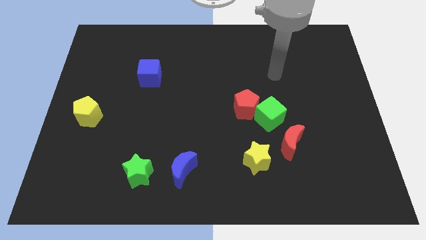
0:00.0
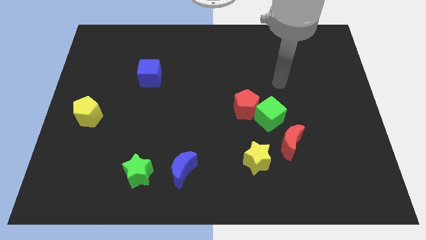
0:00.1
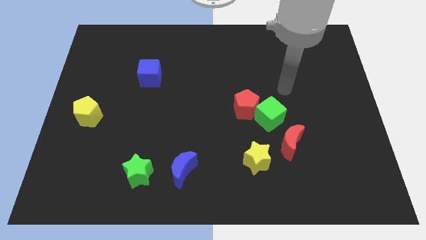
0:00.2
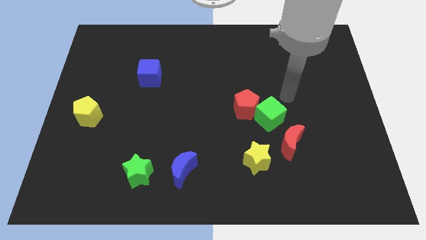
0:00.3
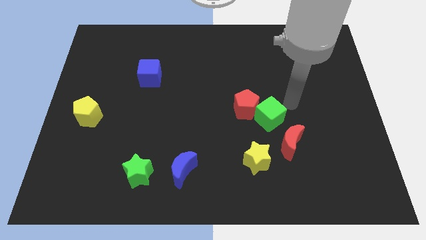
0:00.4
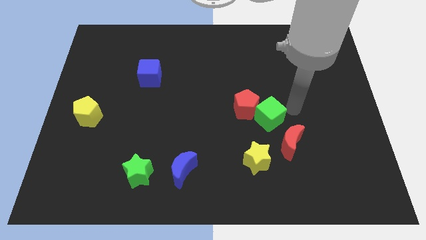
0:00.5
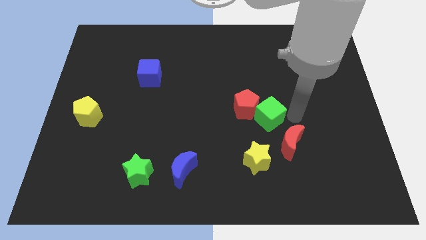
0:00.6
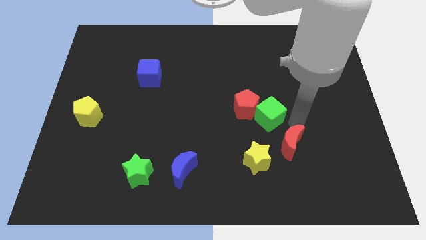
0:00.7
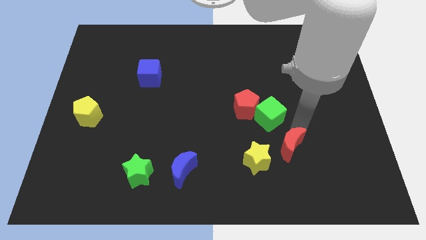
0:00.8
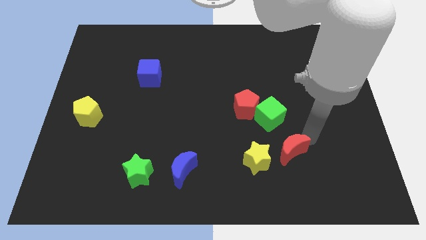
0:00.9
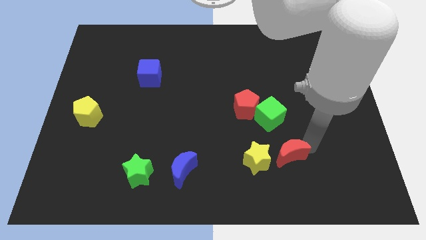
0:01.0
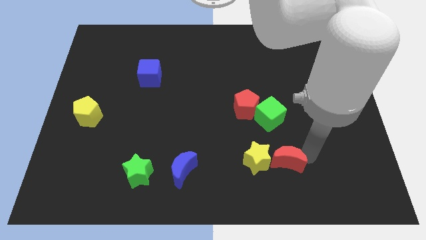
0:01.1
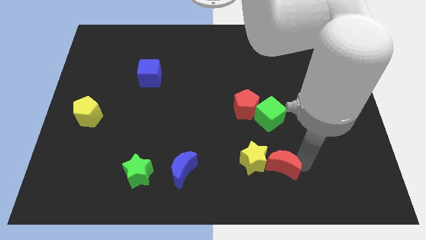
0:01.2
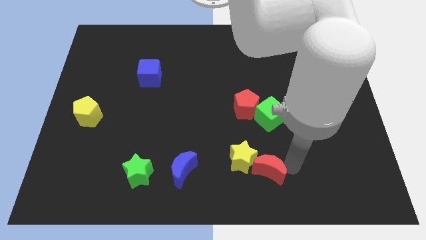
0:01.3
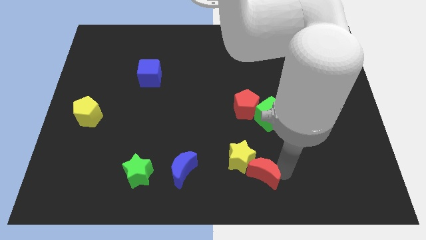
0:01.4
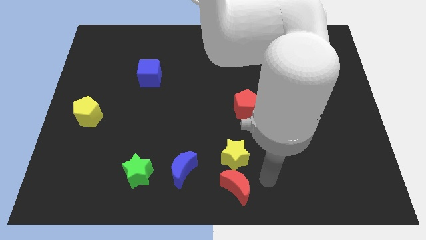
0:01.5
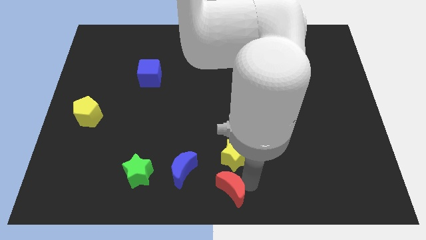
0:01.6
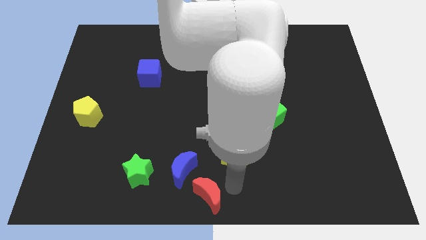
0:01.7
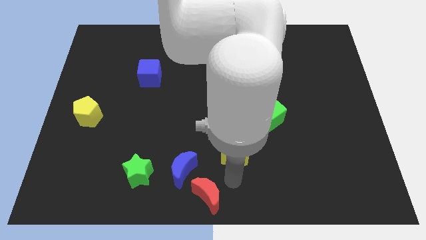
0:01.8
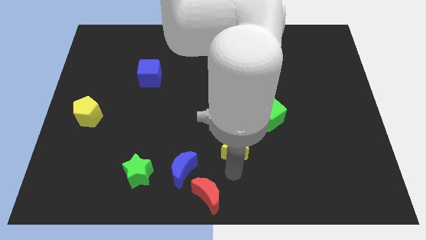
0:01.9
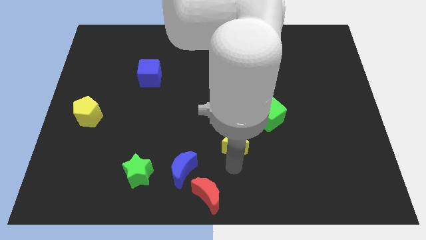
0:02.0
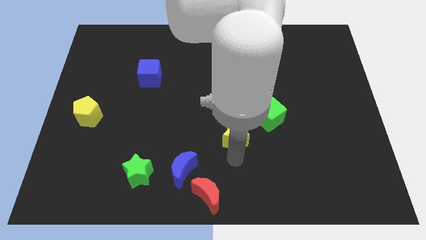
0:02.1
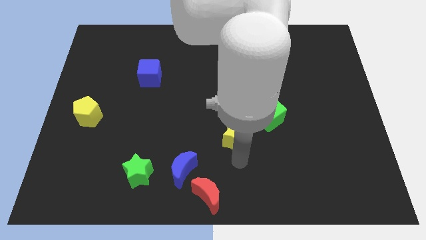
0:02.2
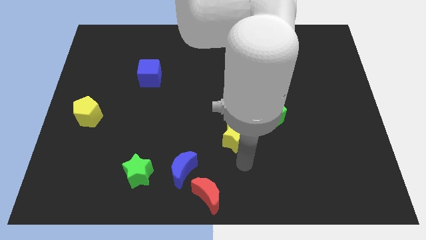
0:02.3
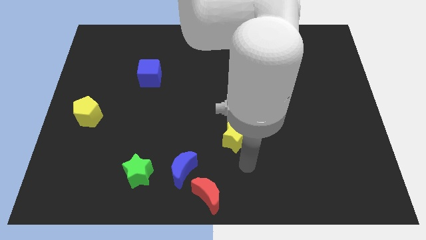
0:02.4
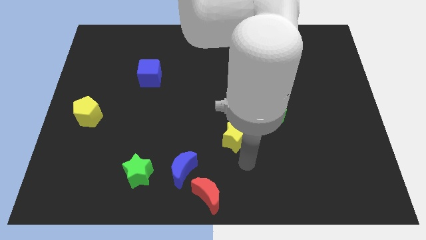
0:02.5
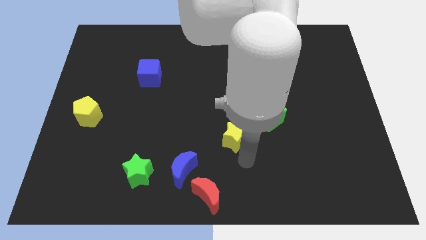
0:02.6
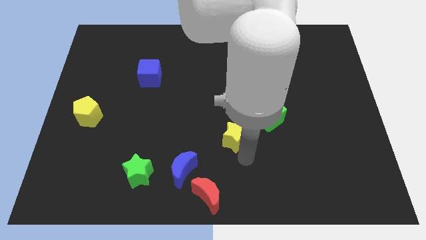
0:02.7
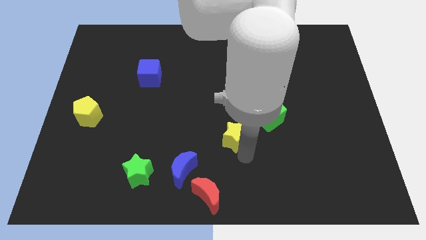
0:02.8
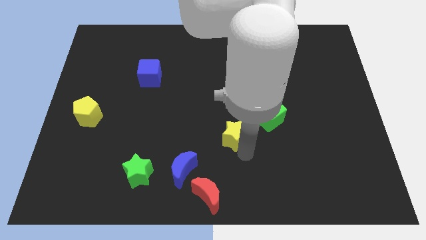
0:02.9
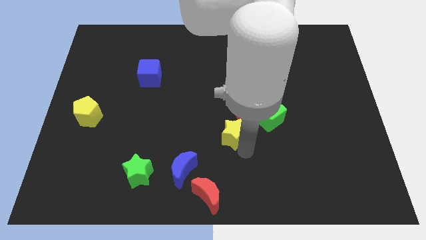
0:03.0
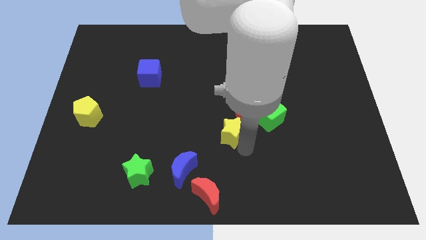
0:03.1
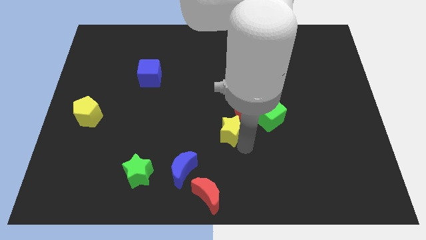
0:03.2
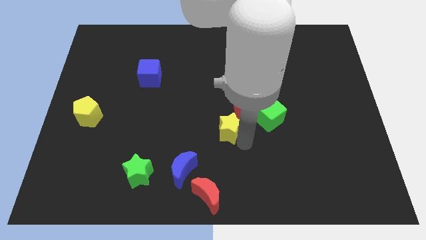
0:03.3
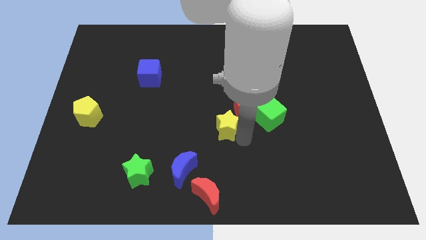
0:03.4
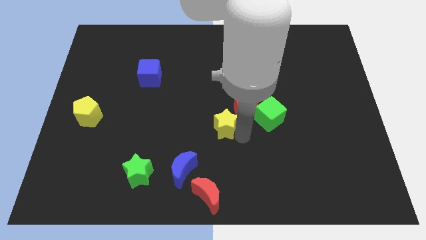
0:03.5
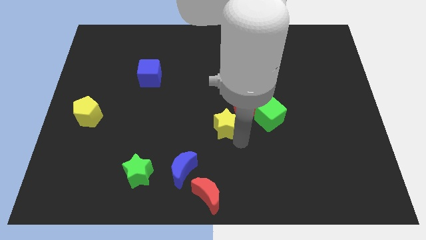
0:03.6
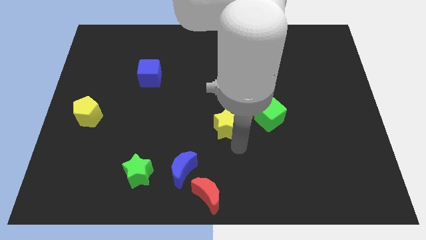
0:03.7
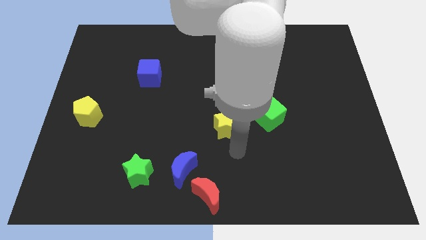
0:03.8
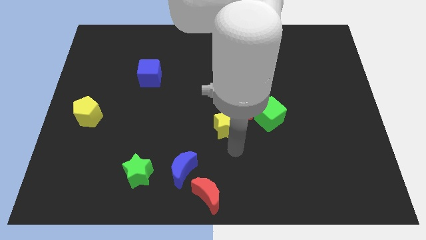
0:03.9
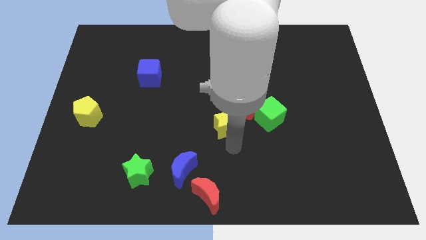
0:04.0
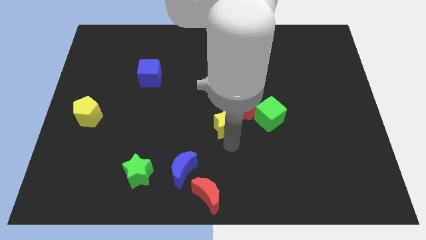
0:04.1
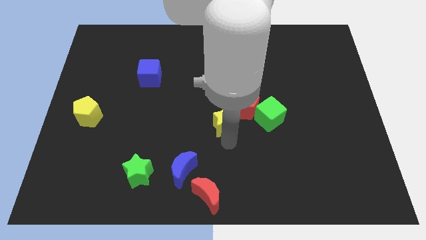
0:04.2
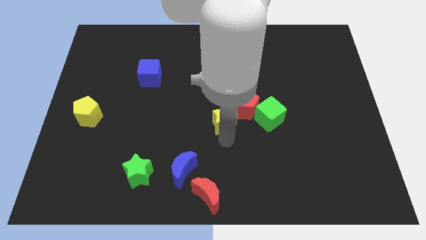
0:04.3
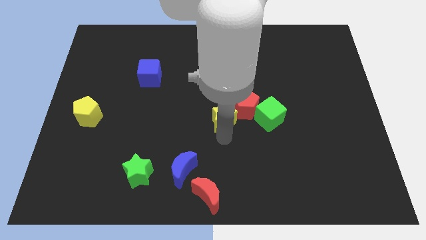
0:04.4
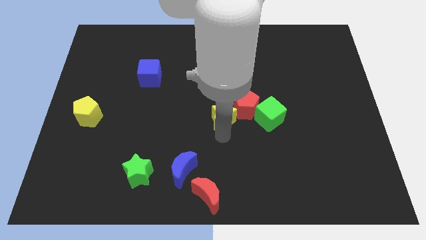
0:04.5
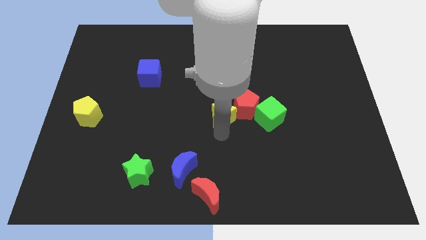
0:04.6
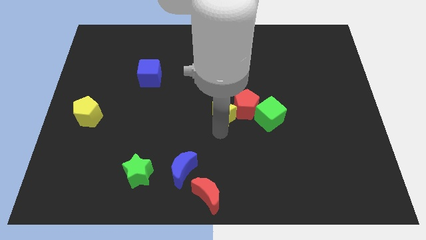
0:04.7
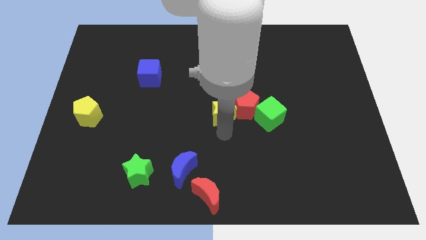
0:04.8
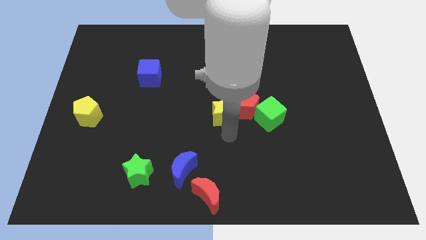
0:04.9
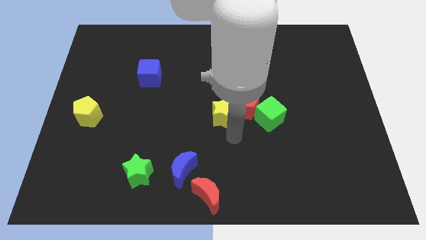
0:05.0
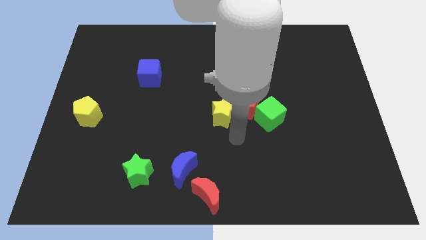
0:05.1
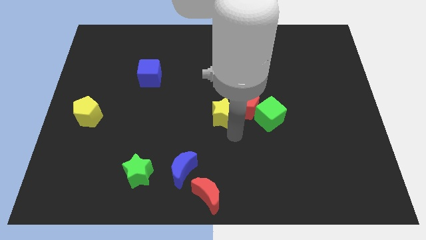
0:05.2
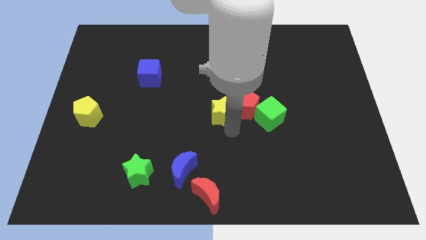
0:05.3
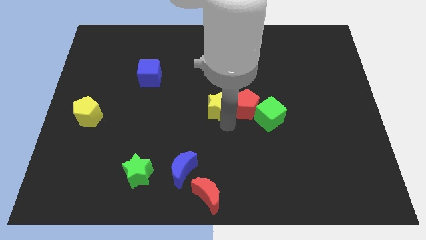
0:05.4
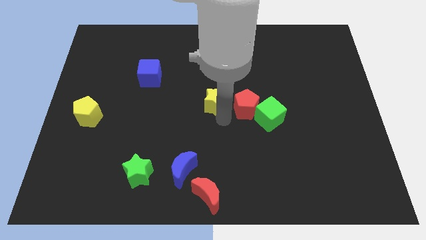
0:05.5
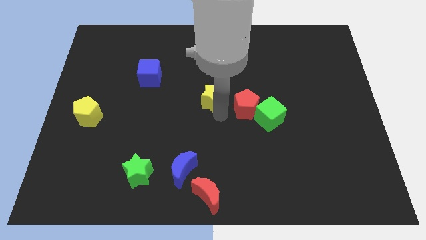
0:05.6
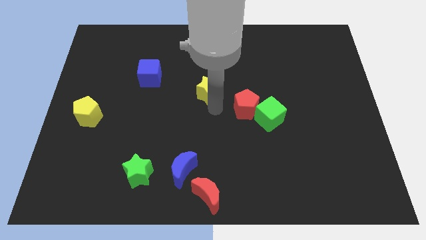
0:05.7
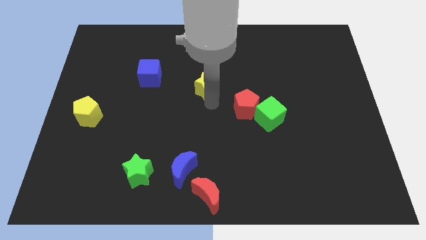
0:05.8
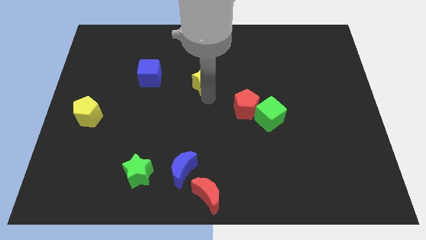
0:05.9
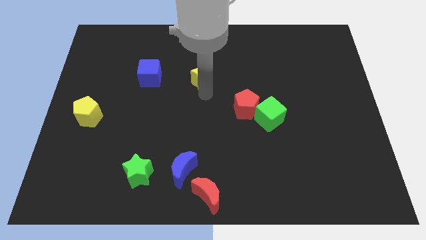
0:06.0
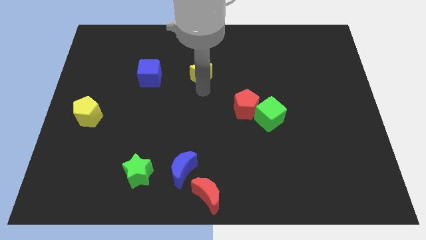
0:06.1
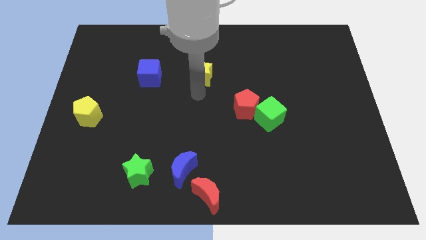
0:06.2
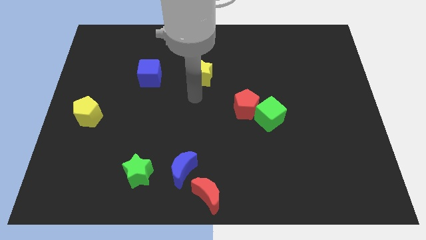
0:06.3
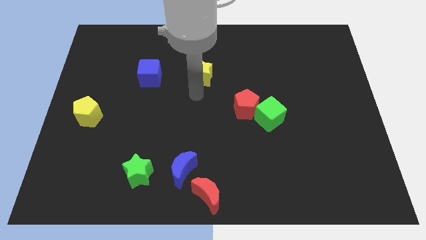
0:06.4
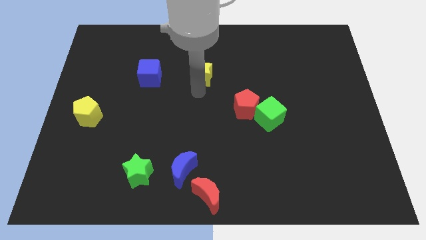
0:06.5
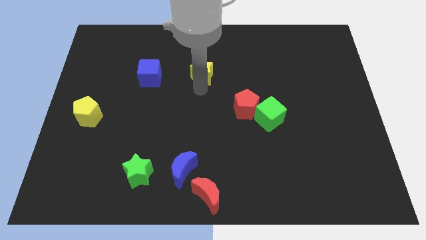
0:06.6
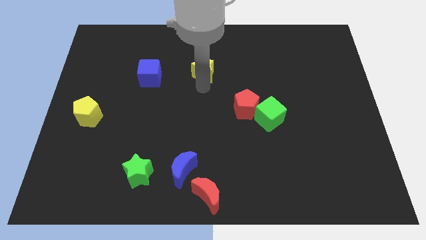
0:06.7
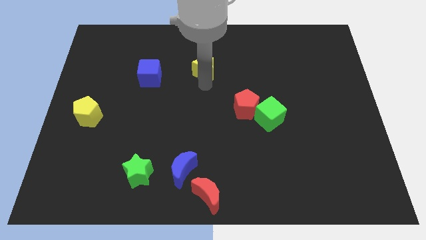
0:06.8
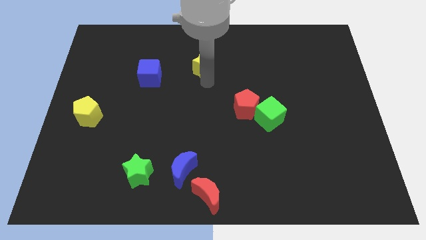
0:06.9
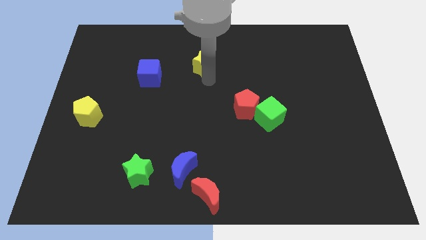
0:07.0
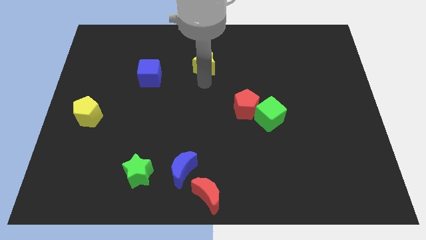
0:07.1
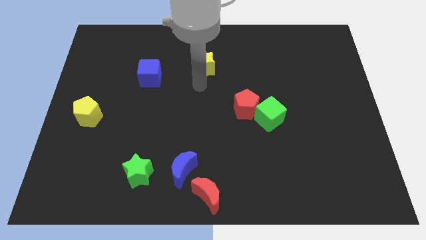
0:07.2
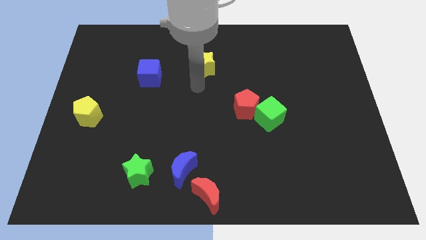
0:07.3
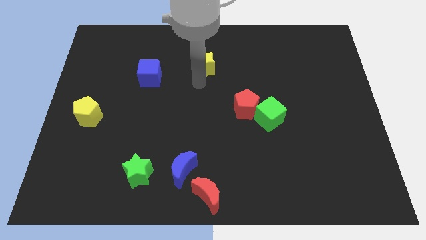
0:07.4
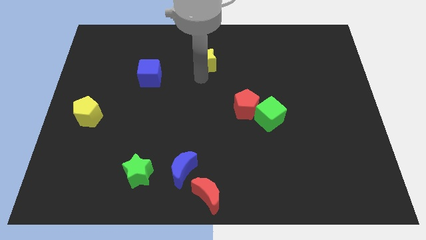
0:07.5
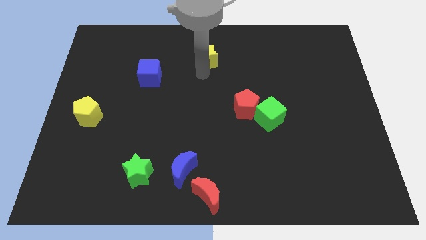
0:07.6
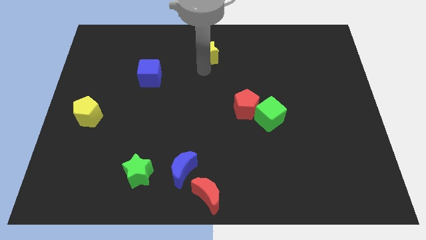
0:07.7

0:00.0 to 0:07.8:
put the yellow star to the top
